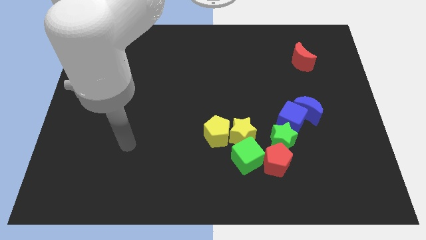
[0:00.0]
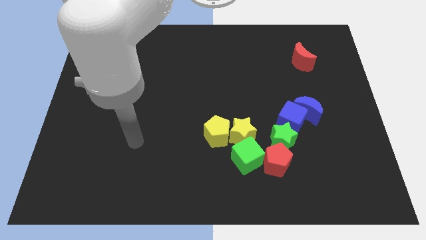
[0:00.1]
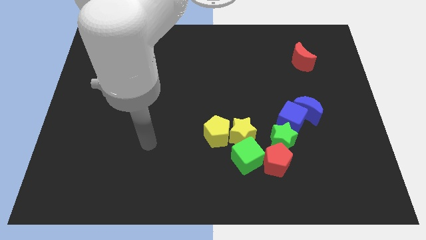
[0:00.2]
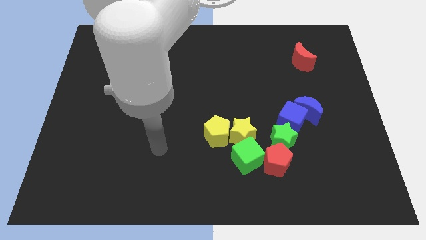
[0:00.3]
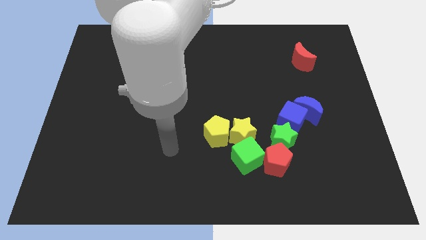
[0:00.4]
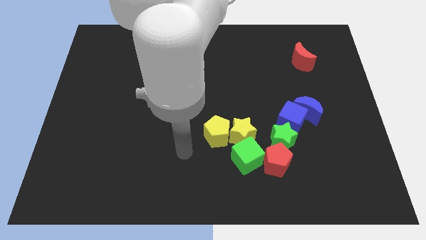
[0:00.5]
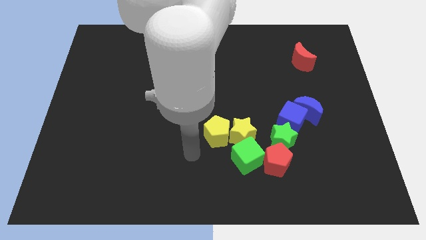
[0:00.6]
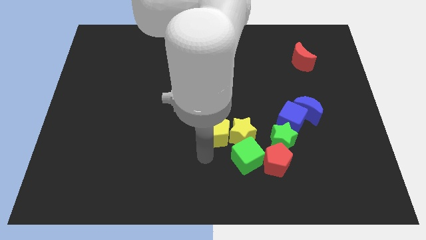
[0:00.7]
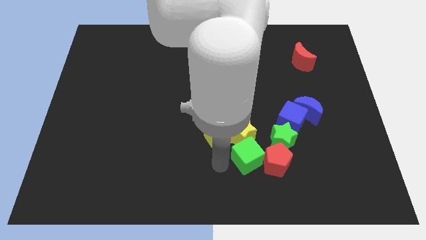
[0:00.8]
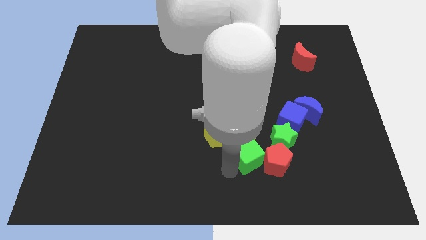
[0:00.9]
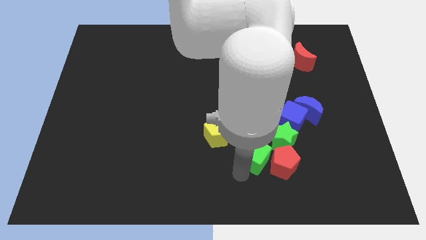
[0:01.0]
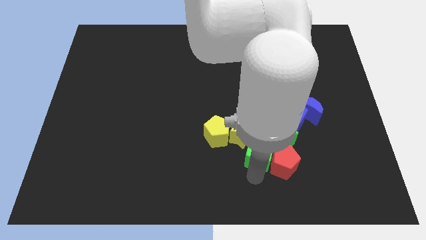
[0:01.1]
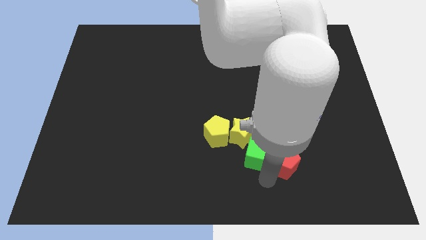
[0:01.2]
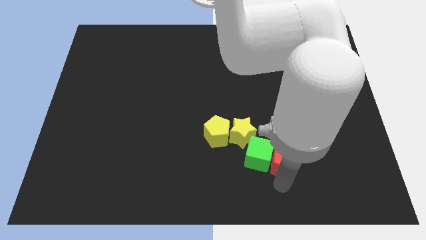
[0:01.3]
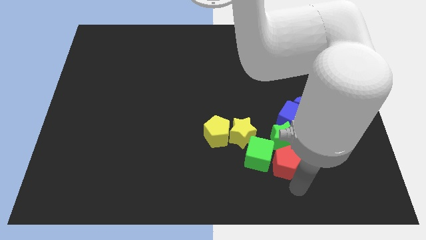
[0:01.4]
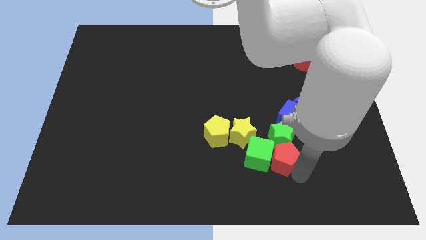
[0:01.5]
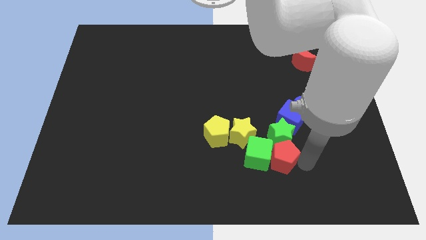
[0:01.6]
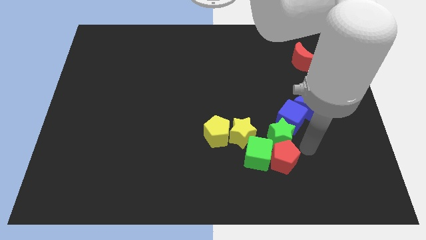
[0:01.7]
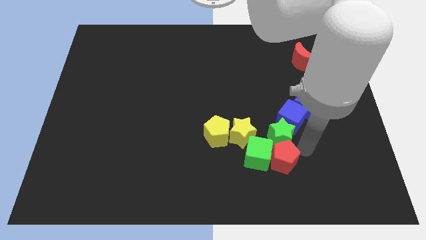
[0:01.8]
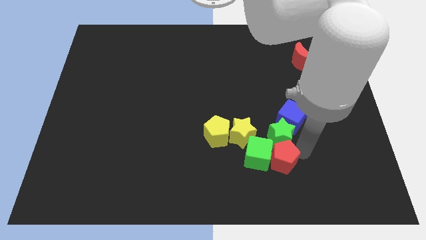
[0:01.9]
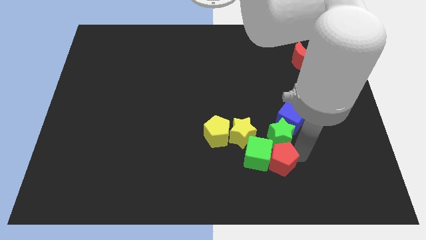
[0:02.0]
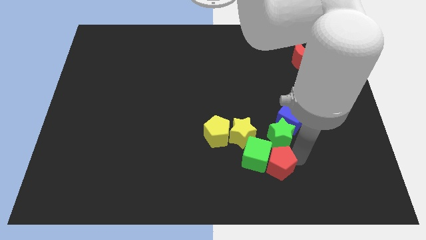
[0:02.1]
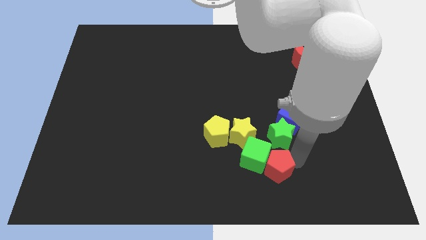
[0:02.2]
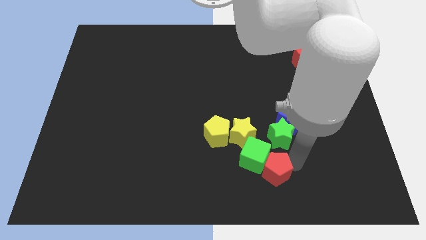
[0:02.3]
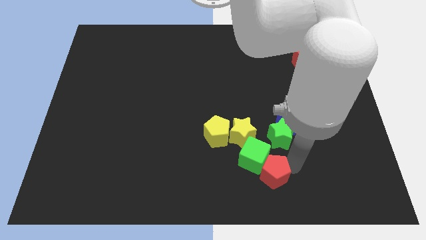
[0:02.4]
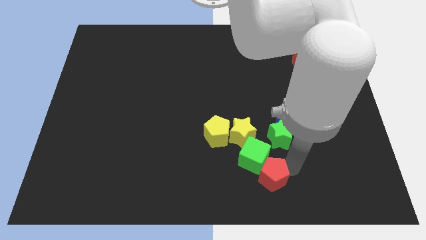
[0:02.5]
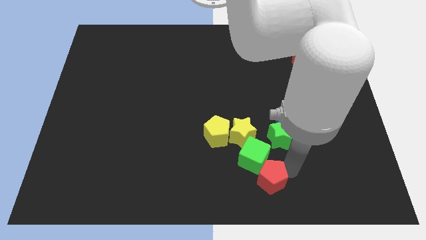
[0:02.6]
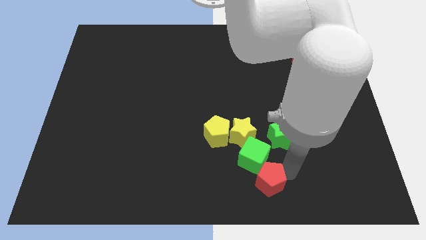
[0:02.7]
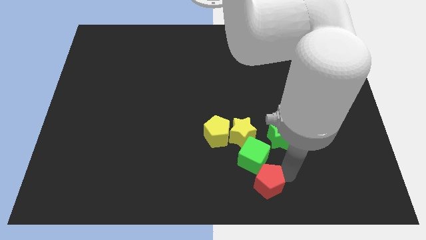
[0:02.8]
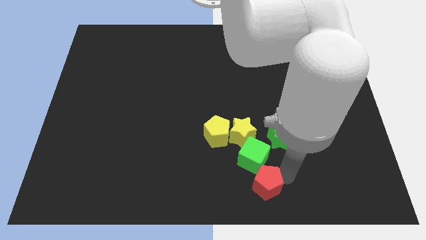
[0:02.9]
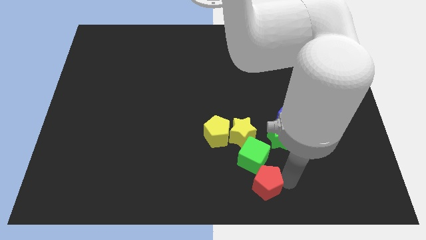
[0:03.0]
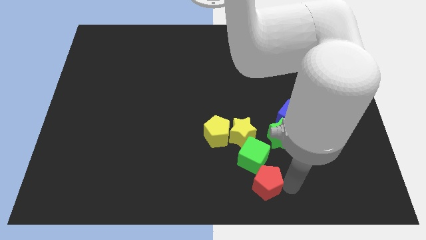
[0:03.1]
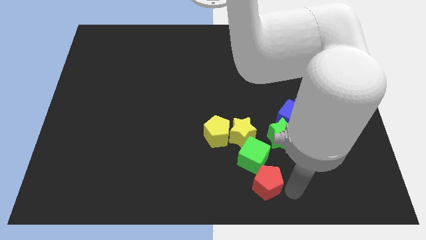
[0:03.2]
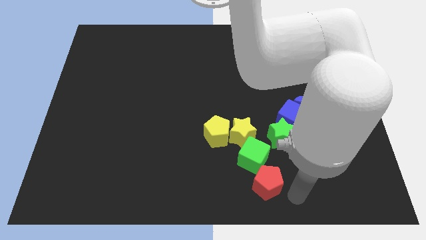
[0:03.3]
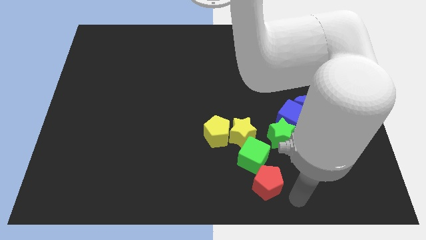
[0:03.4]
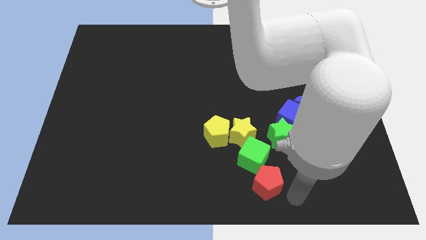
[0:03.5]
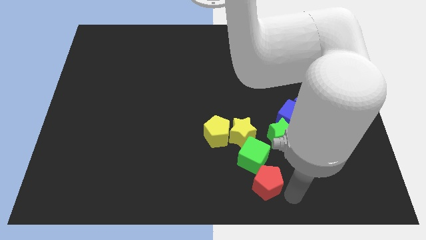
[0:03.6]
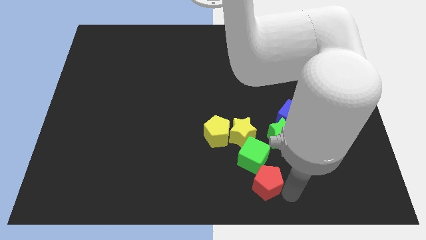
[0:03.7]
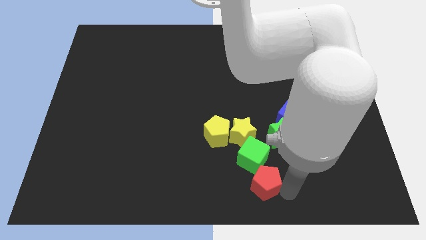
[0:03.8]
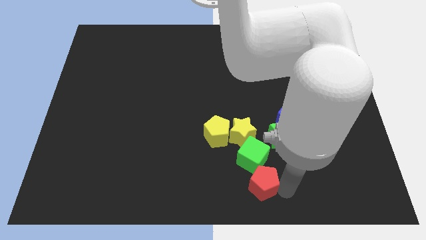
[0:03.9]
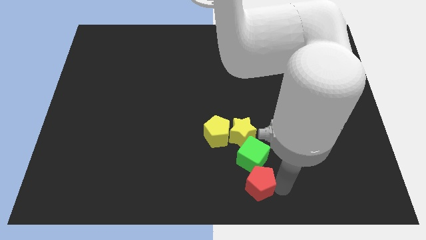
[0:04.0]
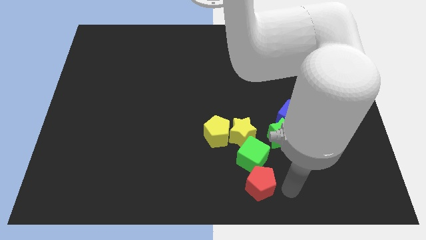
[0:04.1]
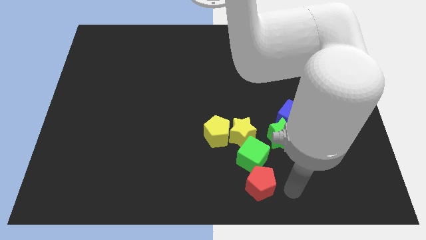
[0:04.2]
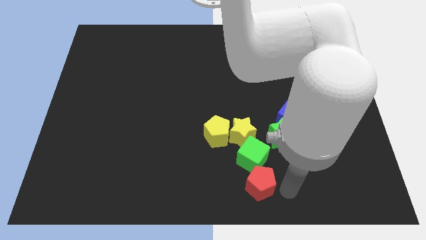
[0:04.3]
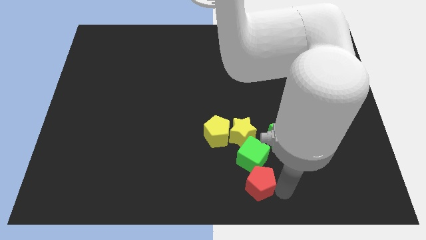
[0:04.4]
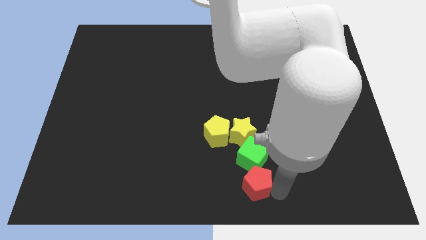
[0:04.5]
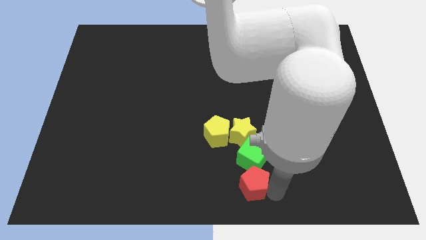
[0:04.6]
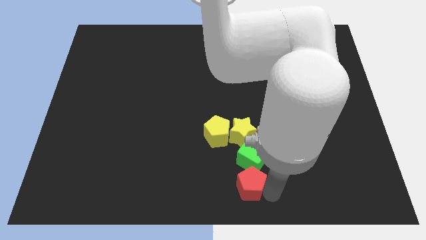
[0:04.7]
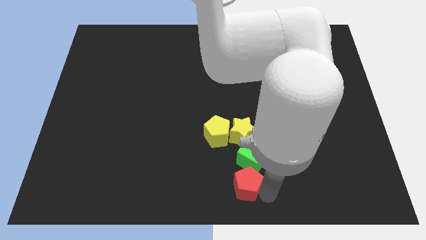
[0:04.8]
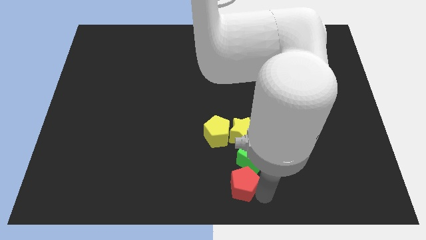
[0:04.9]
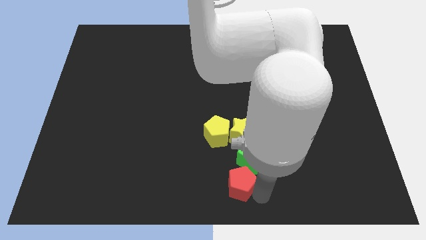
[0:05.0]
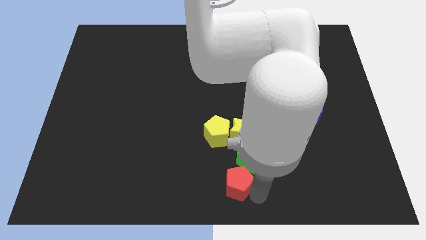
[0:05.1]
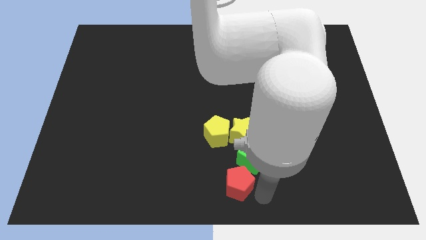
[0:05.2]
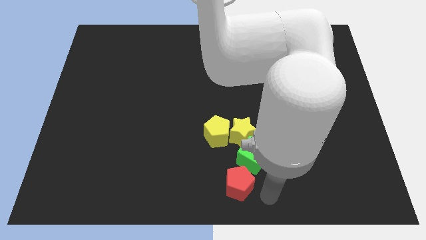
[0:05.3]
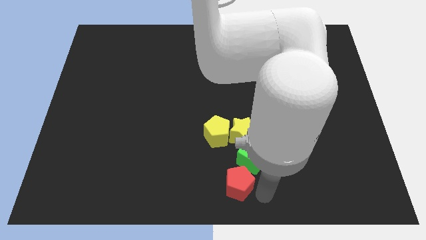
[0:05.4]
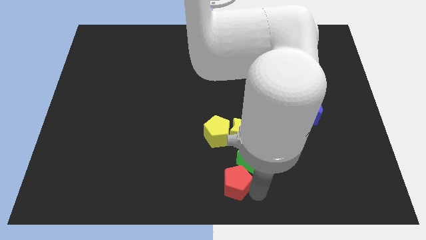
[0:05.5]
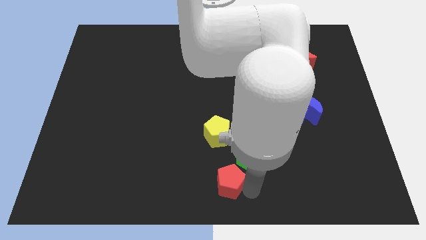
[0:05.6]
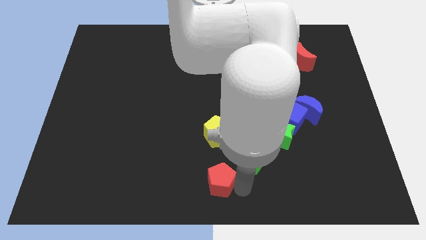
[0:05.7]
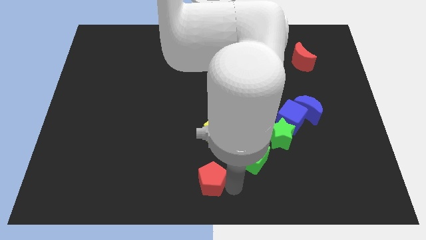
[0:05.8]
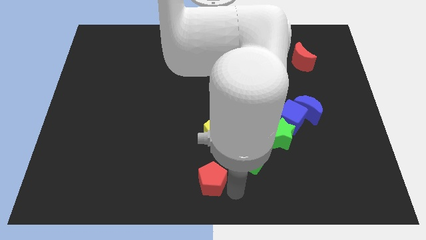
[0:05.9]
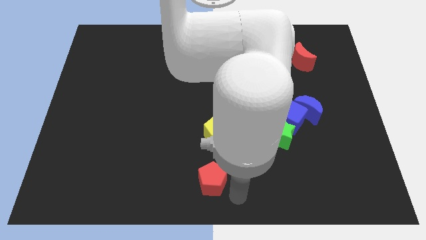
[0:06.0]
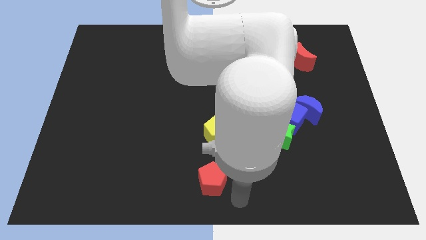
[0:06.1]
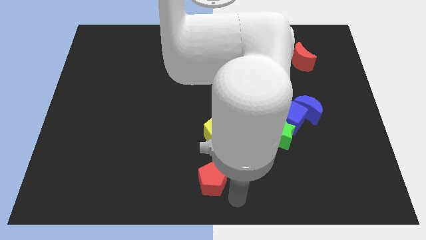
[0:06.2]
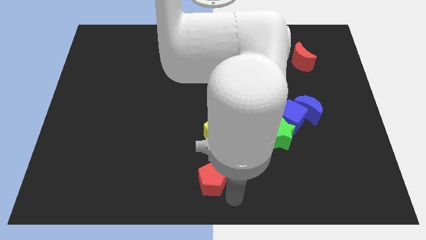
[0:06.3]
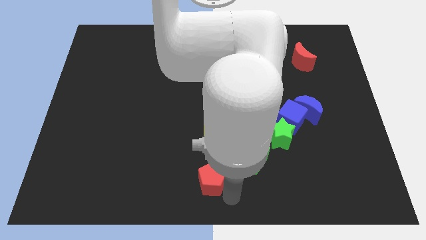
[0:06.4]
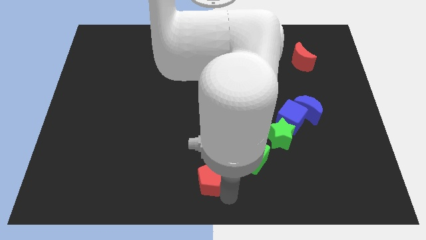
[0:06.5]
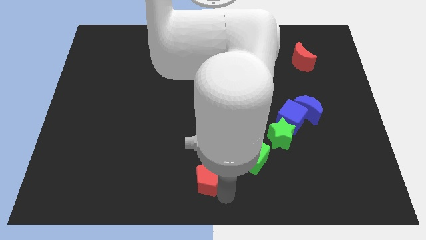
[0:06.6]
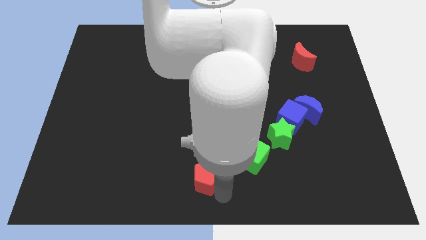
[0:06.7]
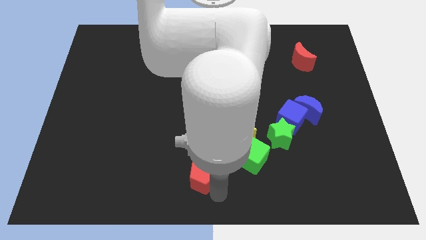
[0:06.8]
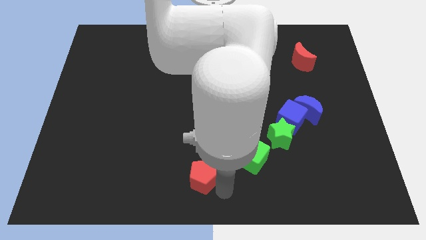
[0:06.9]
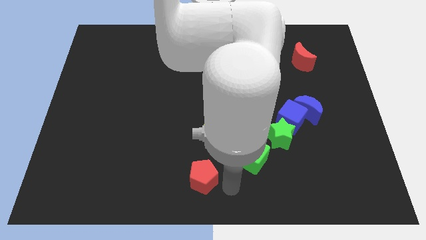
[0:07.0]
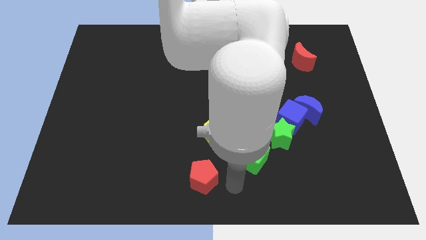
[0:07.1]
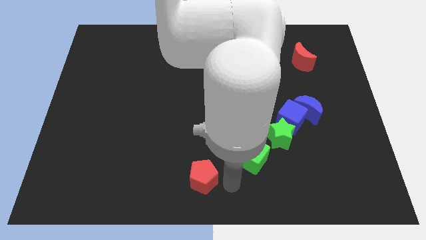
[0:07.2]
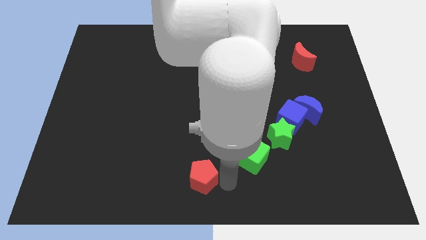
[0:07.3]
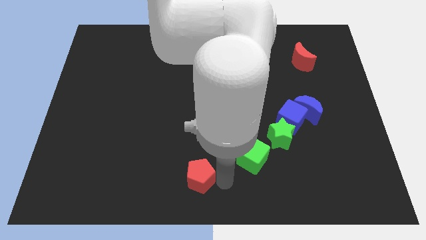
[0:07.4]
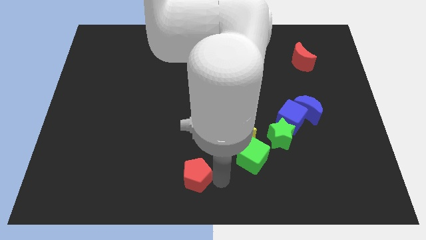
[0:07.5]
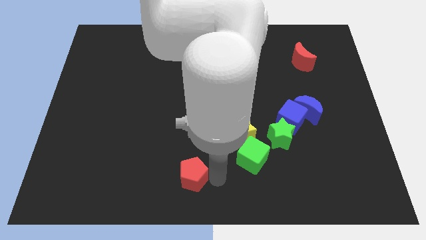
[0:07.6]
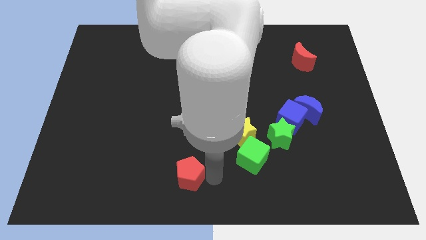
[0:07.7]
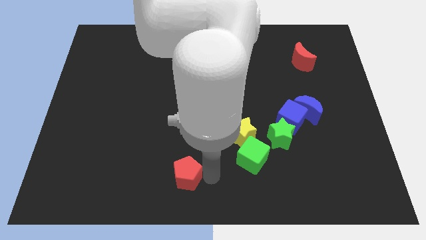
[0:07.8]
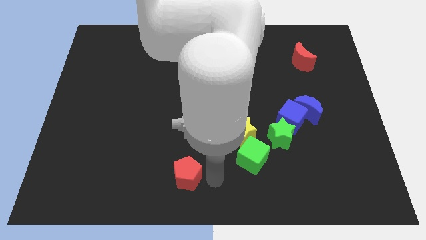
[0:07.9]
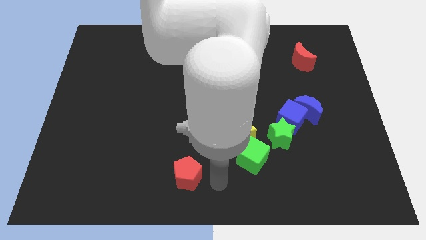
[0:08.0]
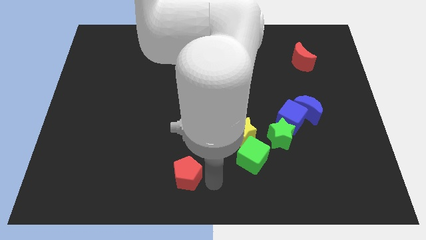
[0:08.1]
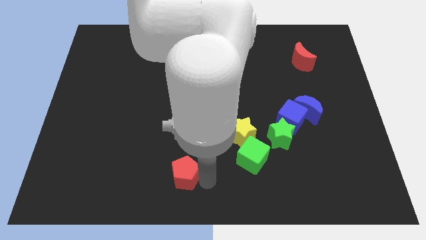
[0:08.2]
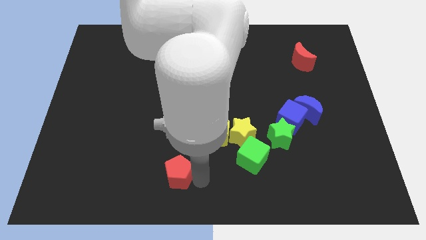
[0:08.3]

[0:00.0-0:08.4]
slide the red pentagon left
